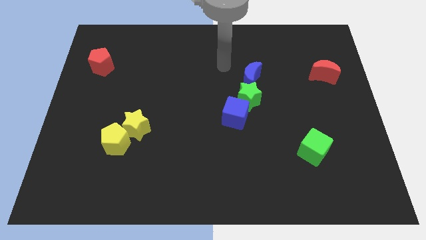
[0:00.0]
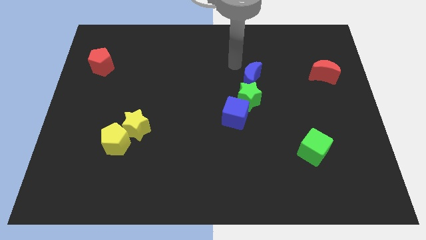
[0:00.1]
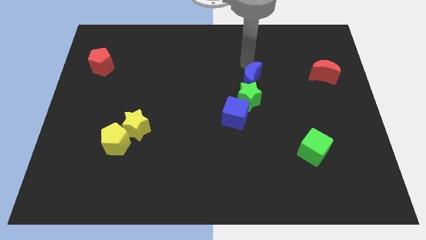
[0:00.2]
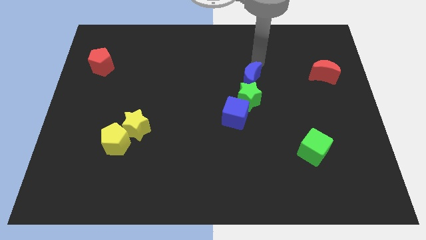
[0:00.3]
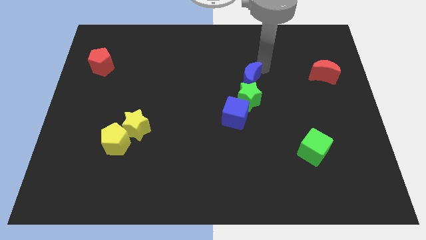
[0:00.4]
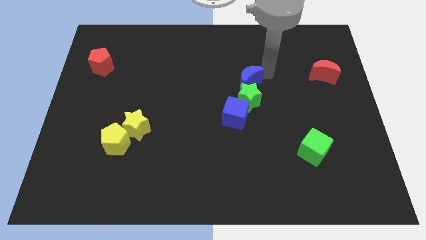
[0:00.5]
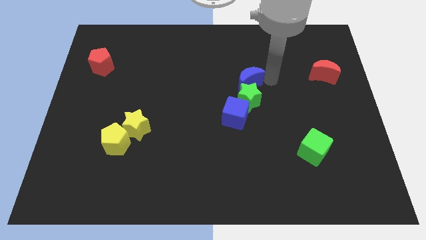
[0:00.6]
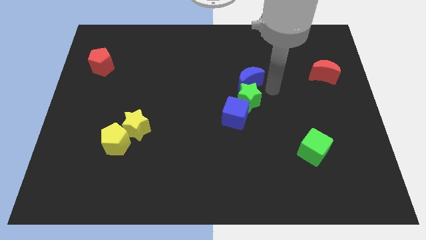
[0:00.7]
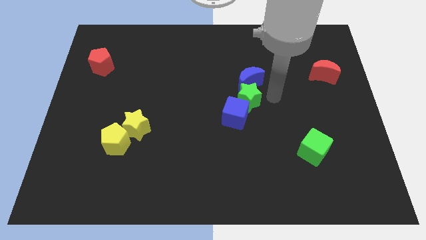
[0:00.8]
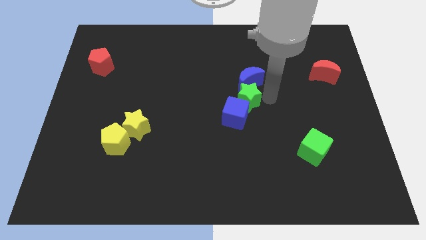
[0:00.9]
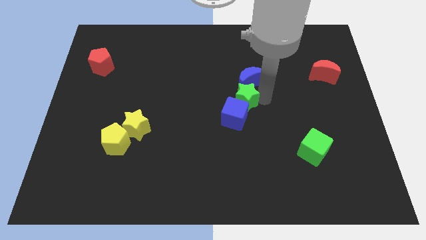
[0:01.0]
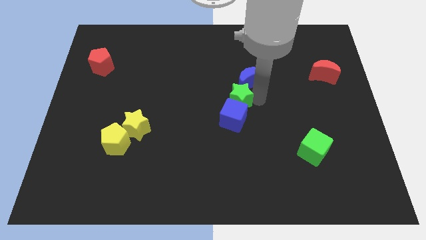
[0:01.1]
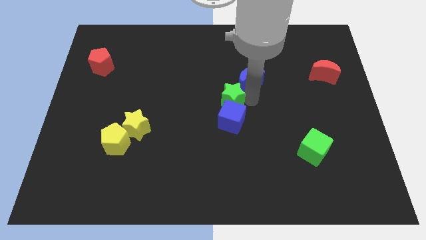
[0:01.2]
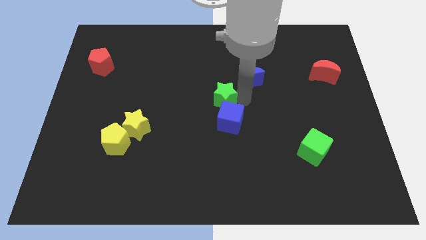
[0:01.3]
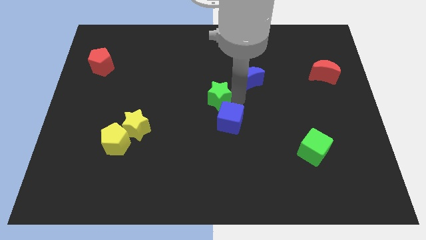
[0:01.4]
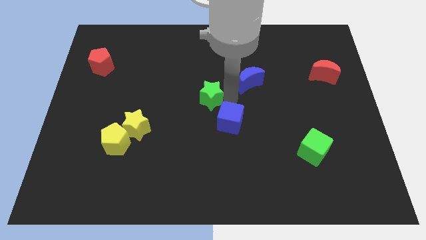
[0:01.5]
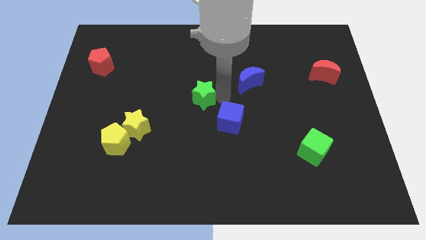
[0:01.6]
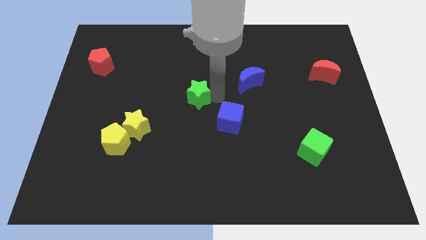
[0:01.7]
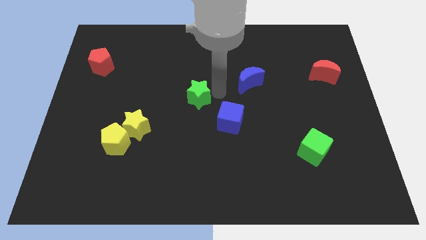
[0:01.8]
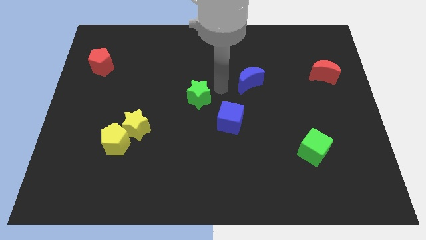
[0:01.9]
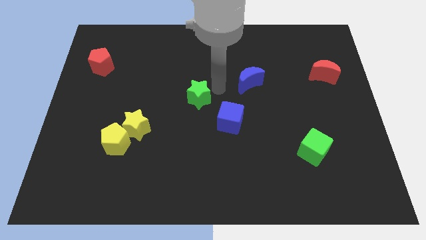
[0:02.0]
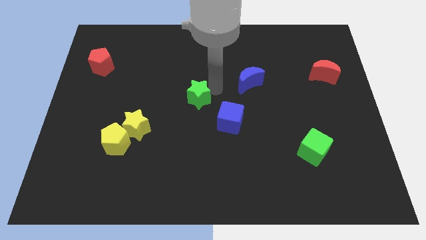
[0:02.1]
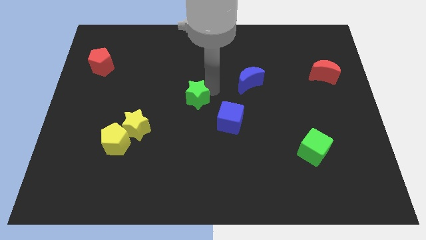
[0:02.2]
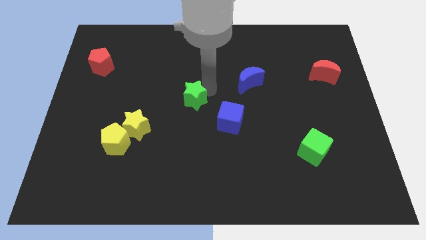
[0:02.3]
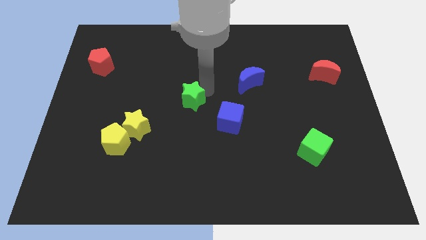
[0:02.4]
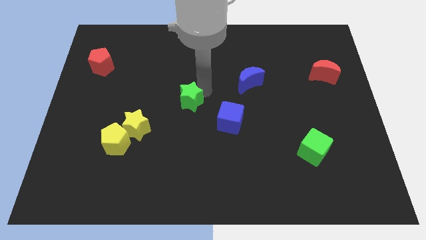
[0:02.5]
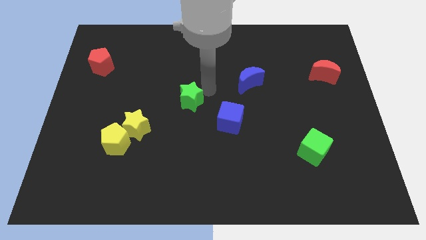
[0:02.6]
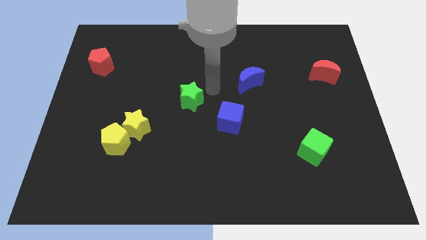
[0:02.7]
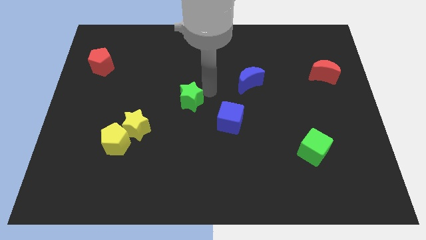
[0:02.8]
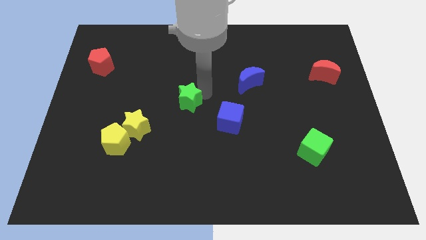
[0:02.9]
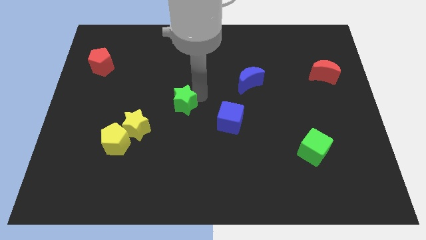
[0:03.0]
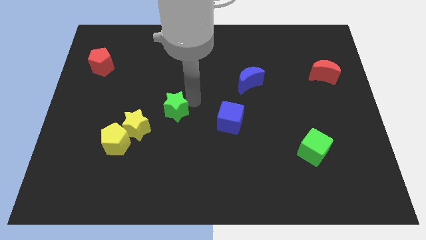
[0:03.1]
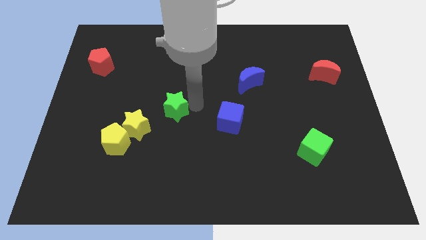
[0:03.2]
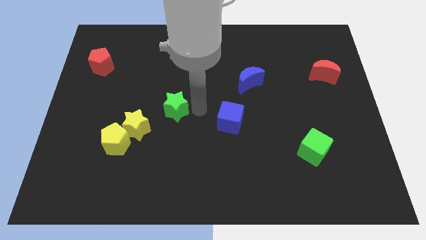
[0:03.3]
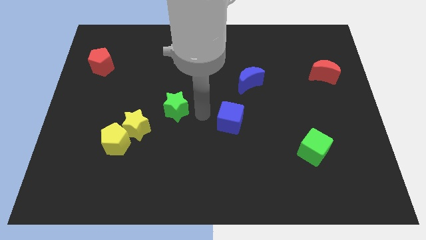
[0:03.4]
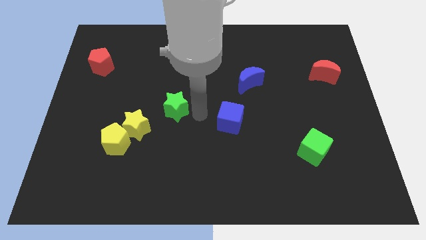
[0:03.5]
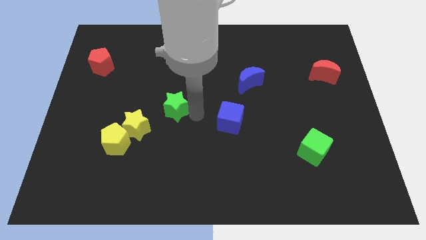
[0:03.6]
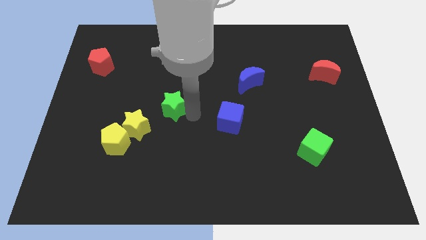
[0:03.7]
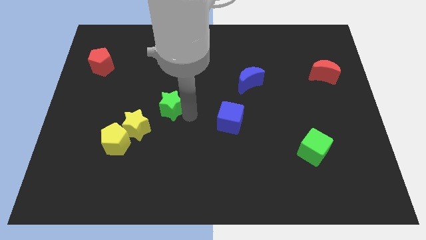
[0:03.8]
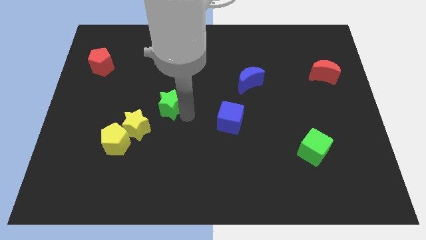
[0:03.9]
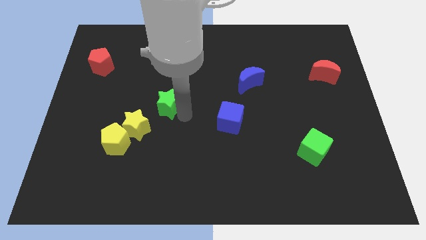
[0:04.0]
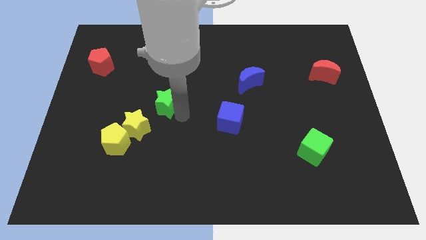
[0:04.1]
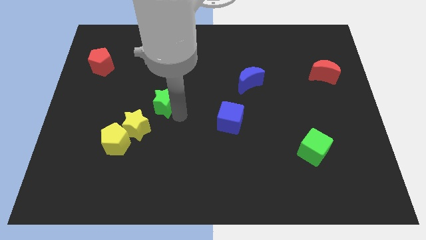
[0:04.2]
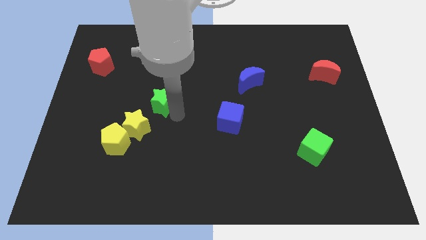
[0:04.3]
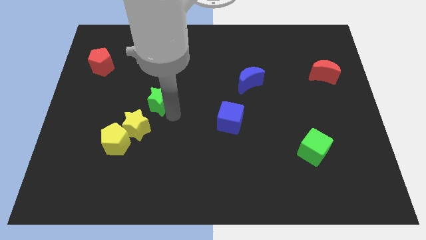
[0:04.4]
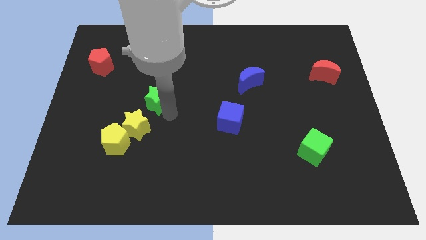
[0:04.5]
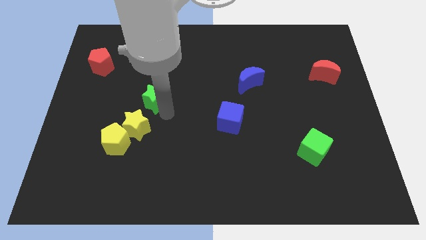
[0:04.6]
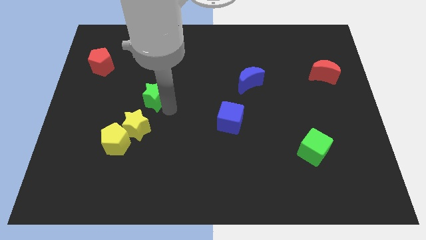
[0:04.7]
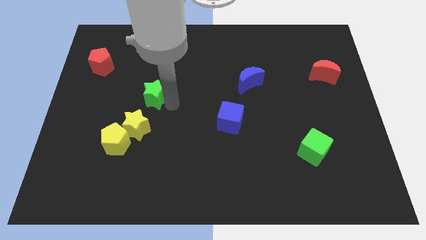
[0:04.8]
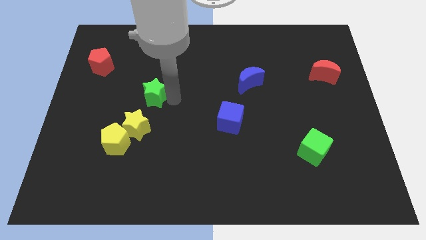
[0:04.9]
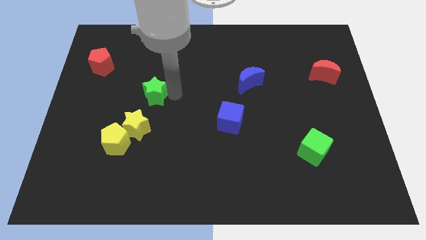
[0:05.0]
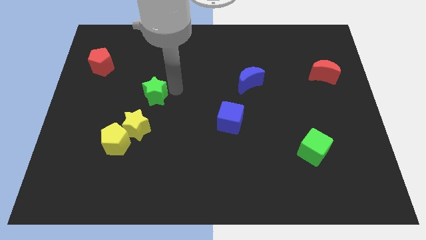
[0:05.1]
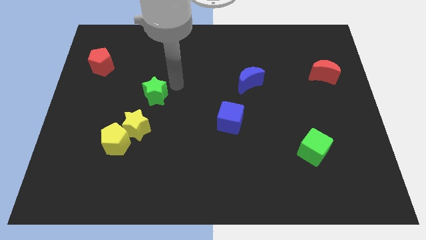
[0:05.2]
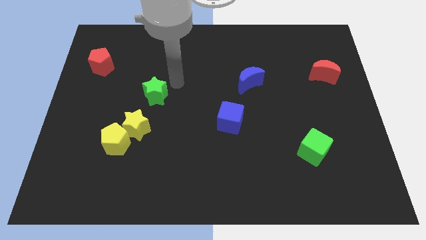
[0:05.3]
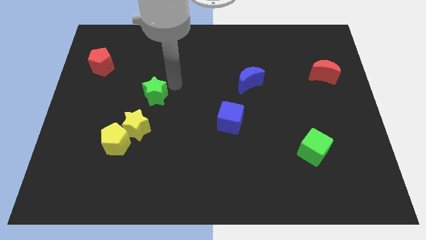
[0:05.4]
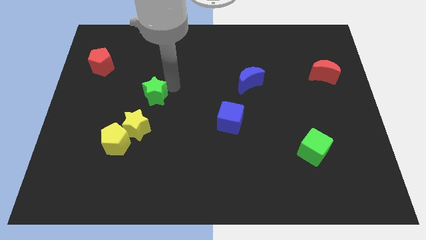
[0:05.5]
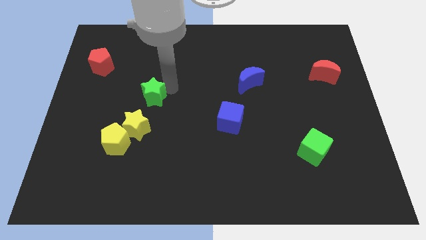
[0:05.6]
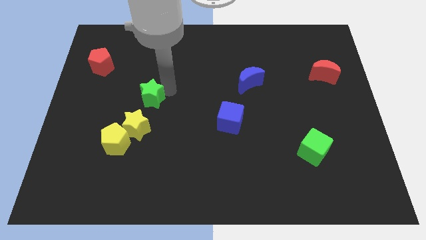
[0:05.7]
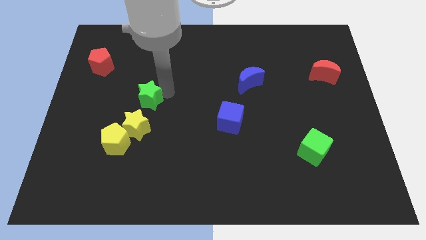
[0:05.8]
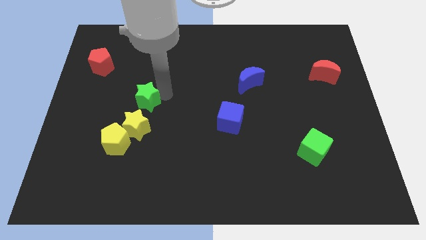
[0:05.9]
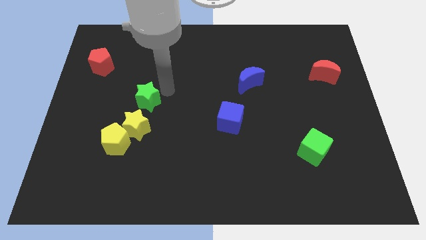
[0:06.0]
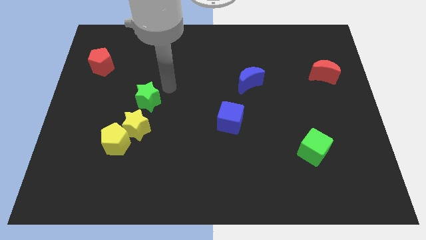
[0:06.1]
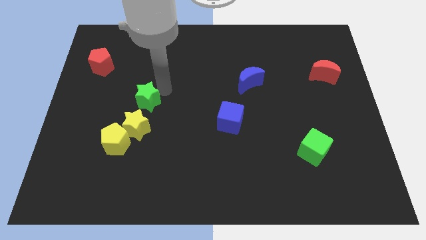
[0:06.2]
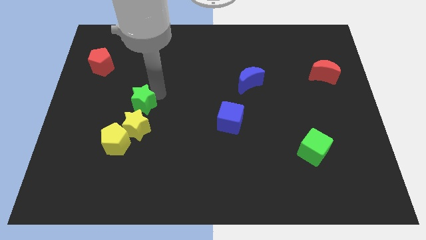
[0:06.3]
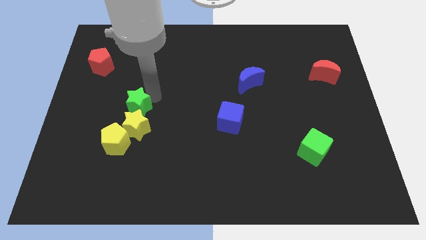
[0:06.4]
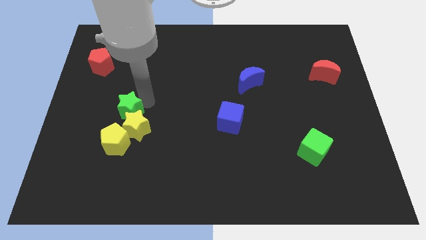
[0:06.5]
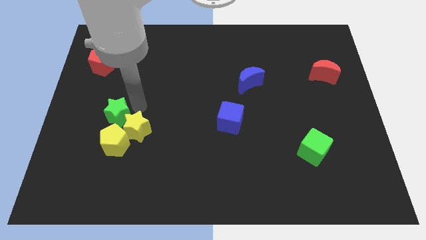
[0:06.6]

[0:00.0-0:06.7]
put the green star to the top left side of the yellow pentagon
